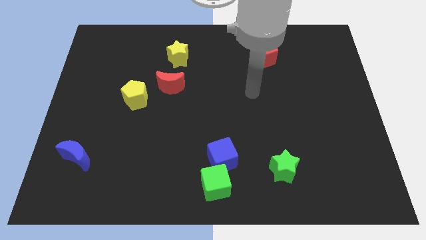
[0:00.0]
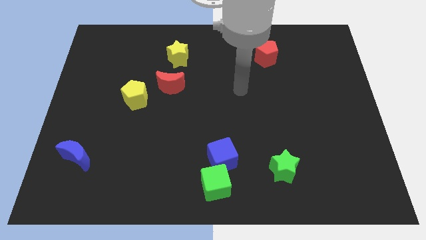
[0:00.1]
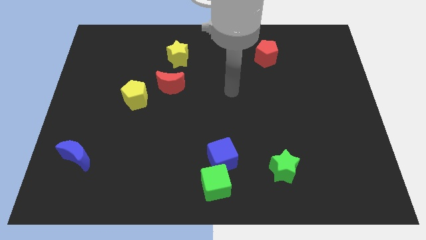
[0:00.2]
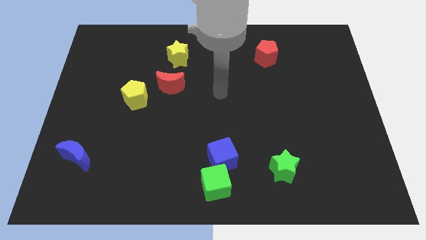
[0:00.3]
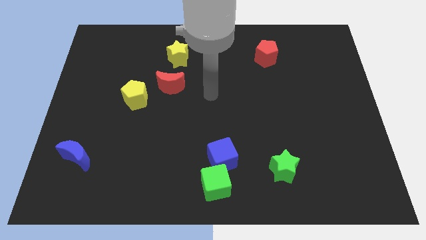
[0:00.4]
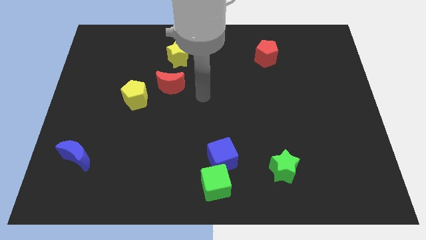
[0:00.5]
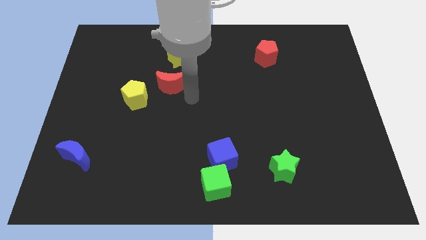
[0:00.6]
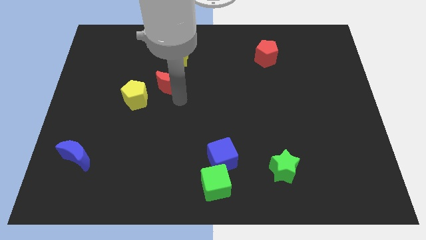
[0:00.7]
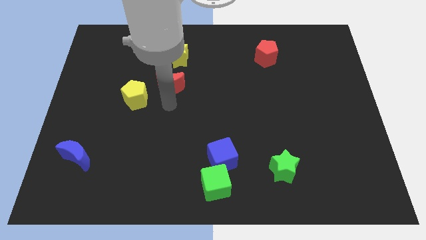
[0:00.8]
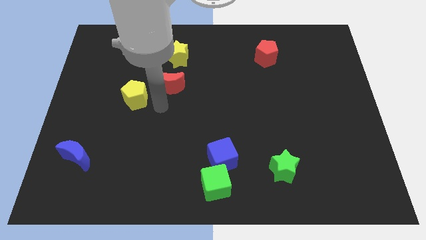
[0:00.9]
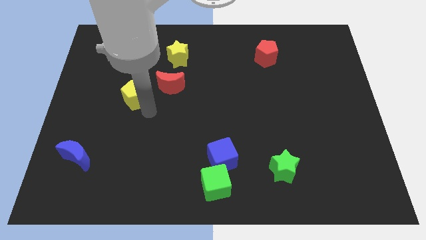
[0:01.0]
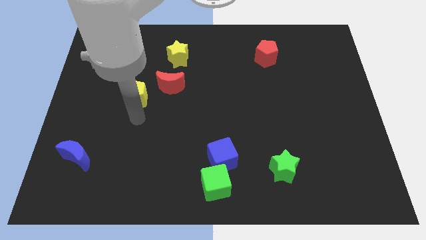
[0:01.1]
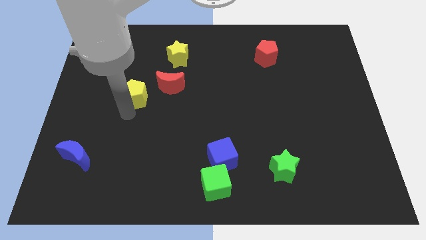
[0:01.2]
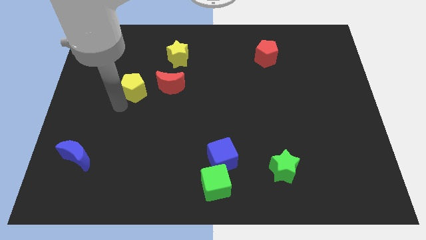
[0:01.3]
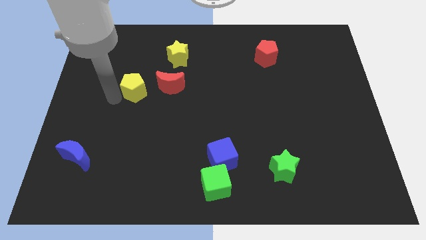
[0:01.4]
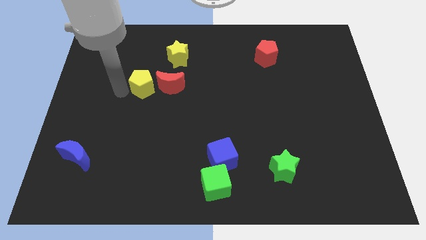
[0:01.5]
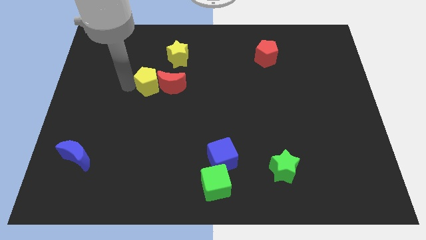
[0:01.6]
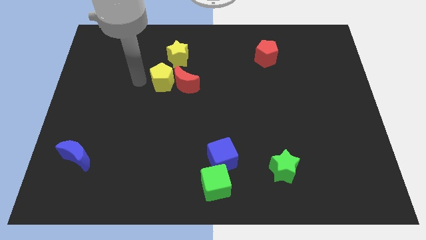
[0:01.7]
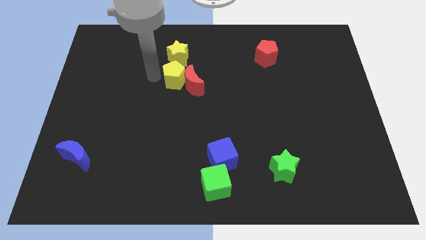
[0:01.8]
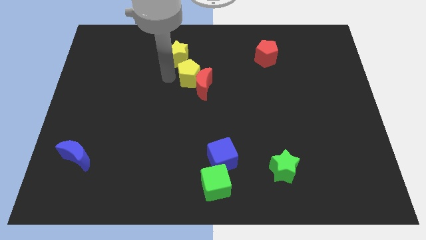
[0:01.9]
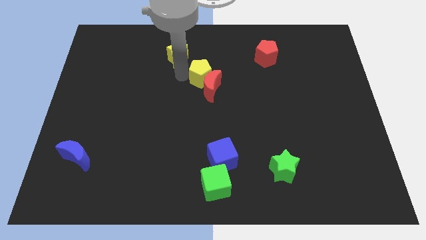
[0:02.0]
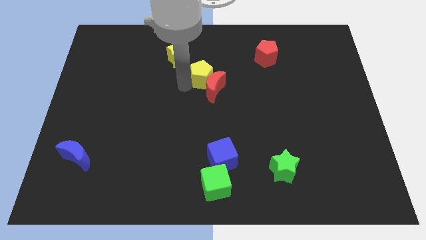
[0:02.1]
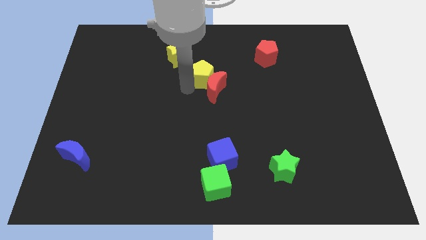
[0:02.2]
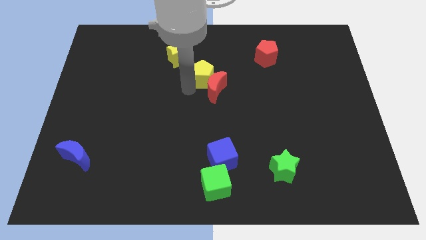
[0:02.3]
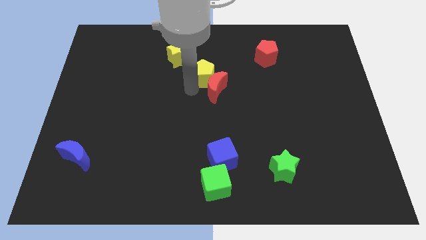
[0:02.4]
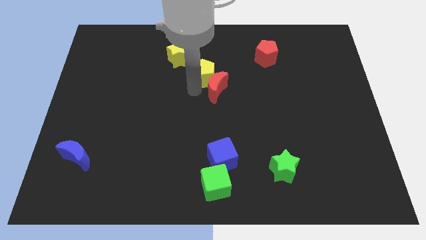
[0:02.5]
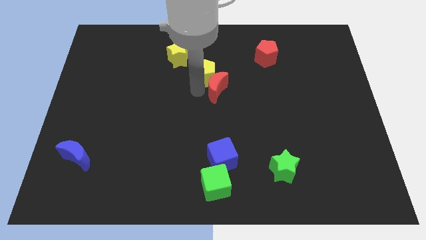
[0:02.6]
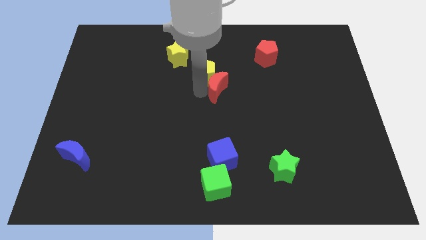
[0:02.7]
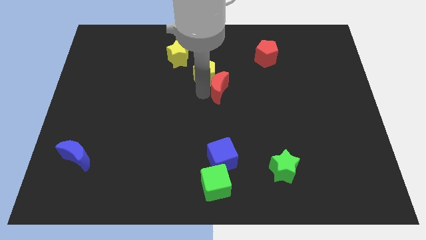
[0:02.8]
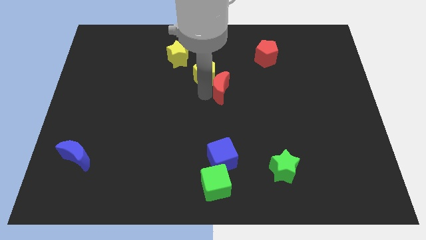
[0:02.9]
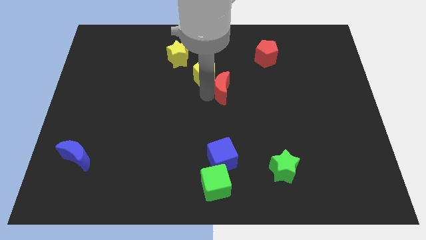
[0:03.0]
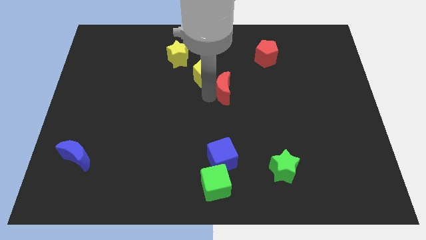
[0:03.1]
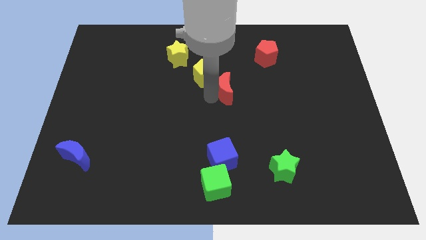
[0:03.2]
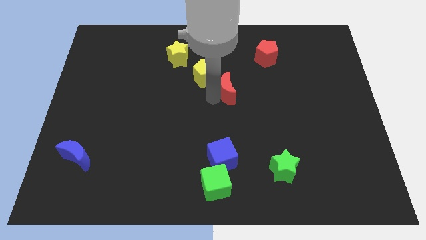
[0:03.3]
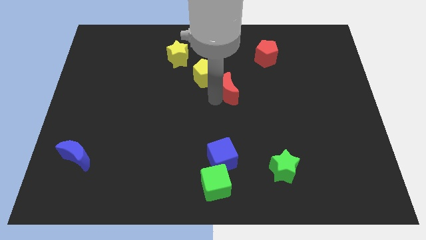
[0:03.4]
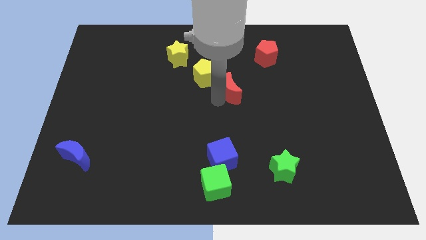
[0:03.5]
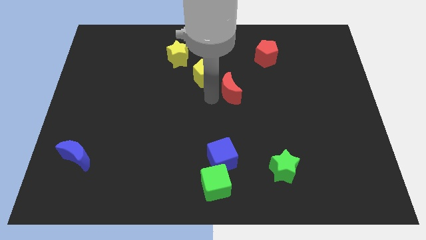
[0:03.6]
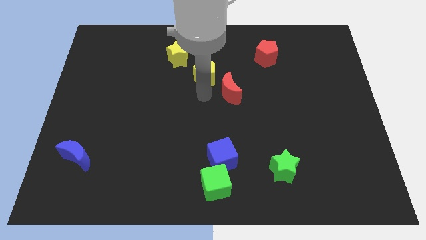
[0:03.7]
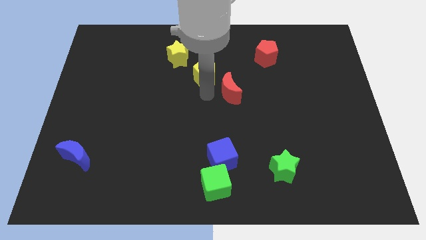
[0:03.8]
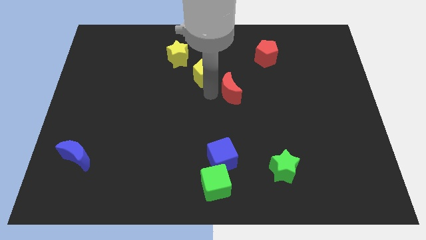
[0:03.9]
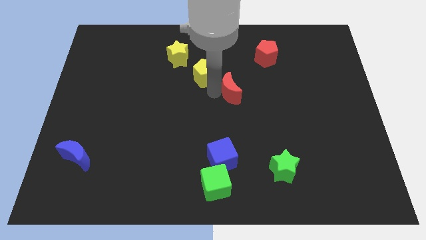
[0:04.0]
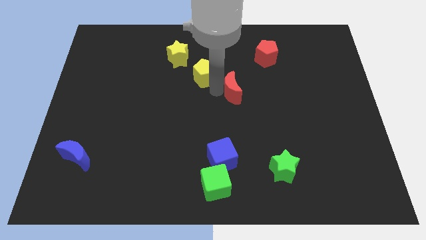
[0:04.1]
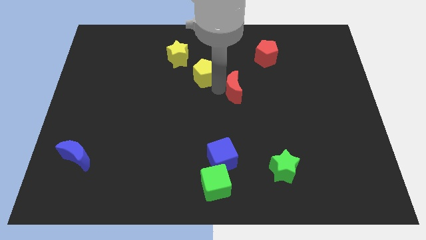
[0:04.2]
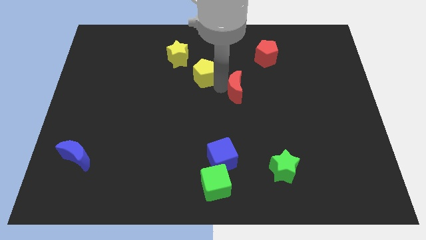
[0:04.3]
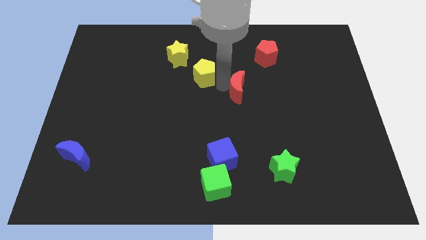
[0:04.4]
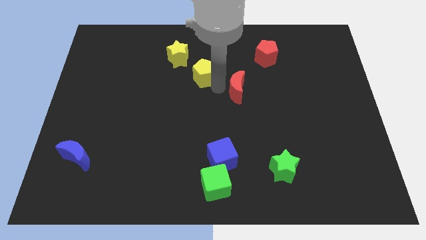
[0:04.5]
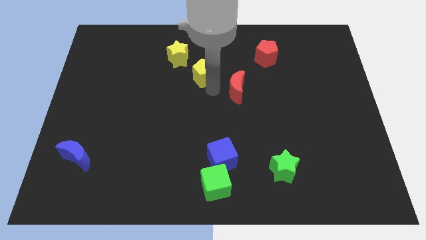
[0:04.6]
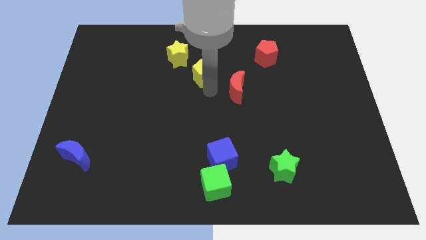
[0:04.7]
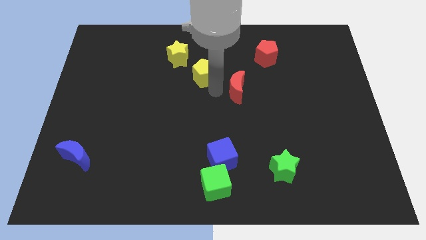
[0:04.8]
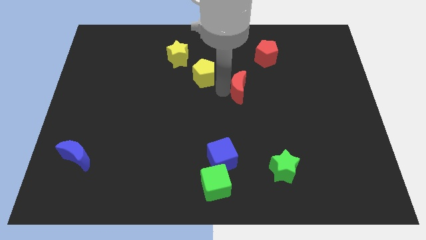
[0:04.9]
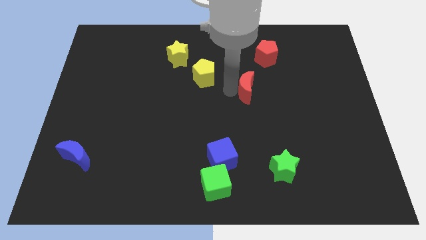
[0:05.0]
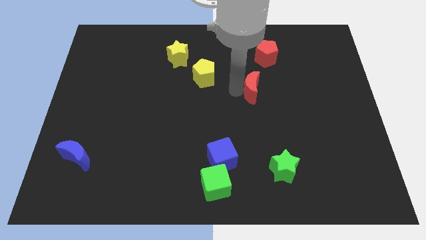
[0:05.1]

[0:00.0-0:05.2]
slide the red moon to the right

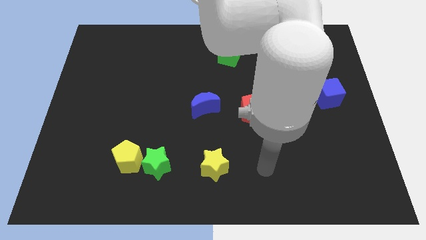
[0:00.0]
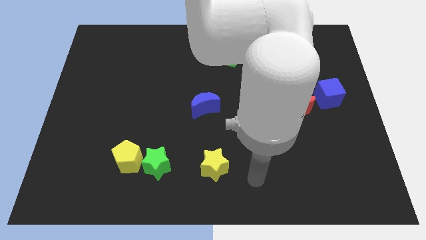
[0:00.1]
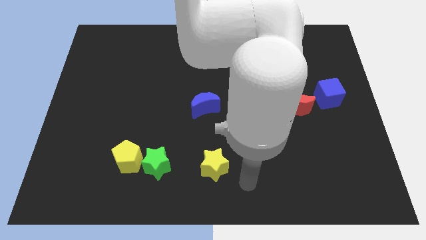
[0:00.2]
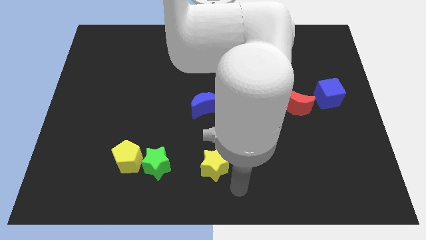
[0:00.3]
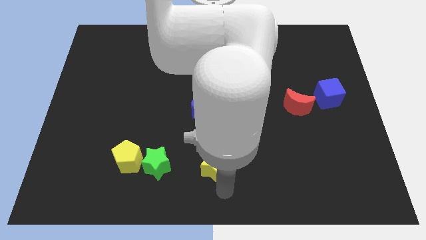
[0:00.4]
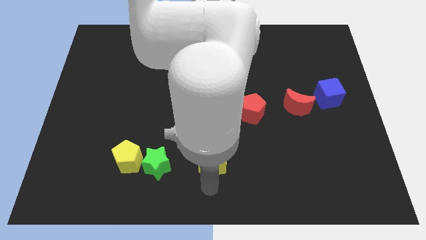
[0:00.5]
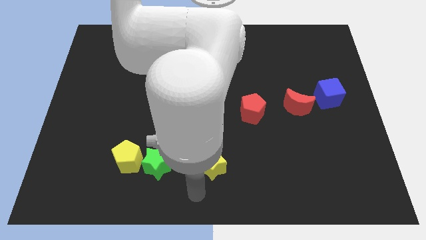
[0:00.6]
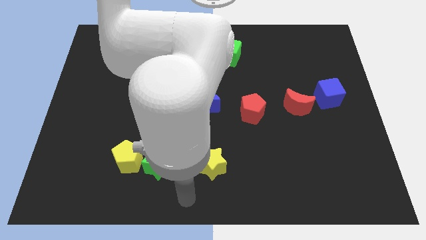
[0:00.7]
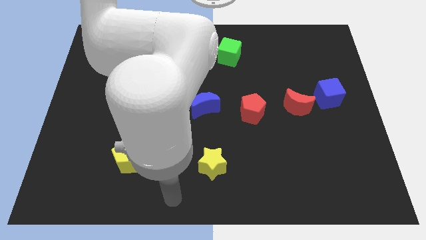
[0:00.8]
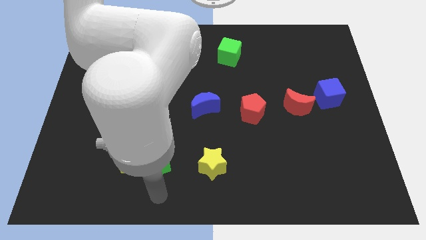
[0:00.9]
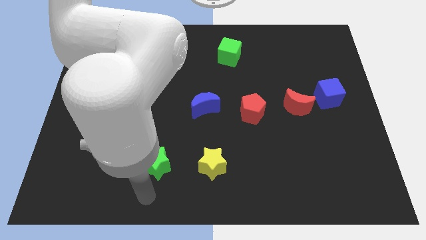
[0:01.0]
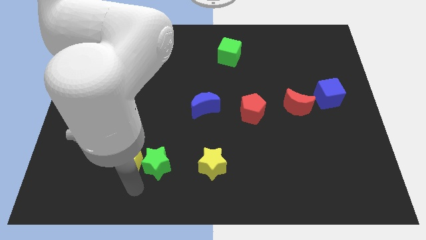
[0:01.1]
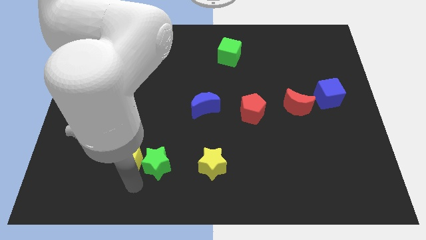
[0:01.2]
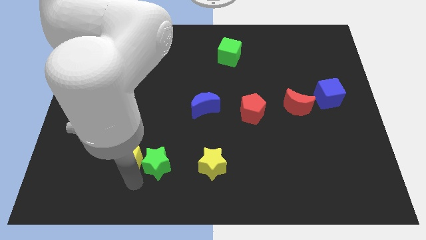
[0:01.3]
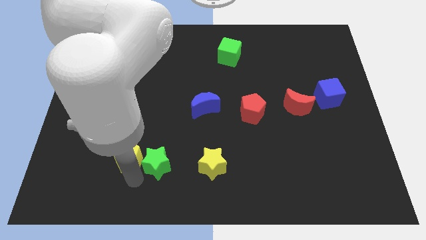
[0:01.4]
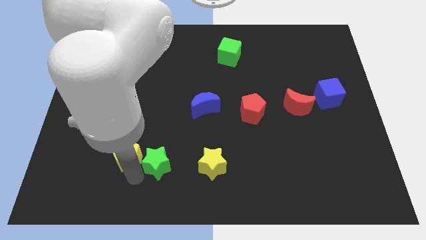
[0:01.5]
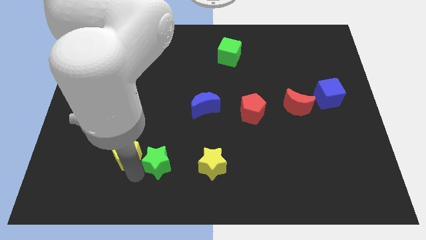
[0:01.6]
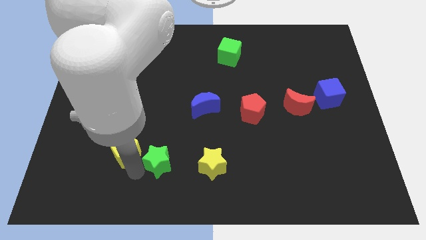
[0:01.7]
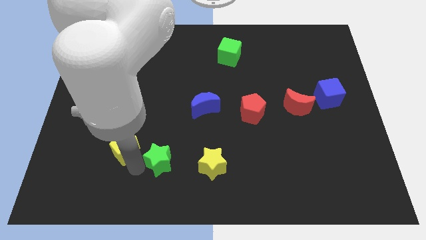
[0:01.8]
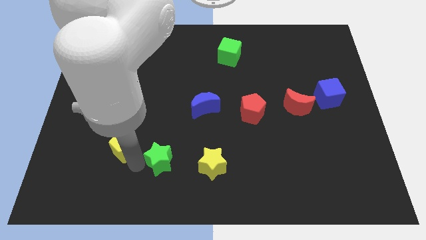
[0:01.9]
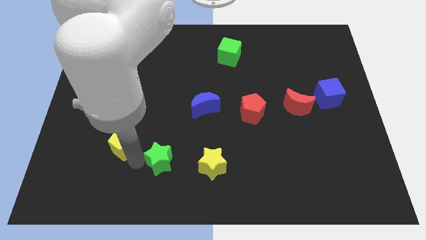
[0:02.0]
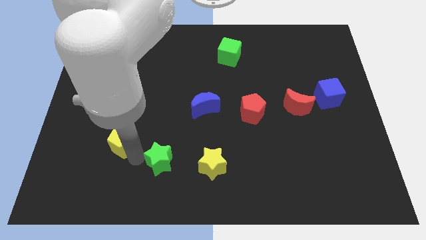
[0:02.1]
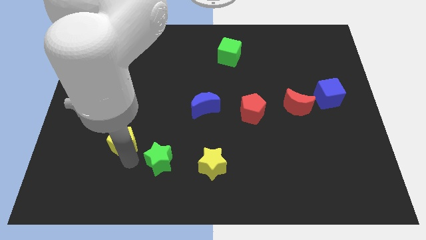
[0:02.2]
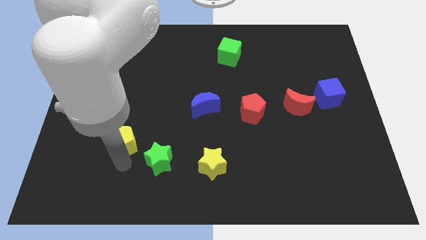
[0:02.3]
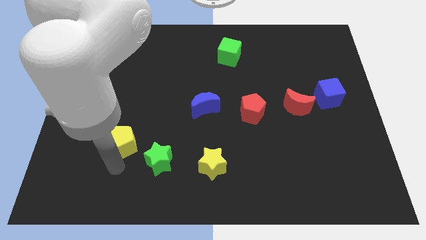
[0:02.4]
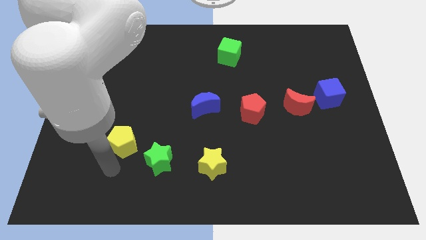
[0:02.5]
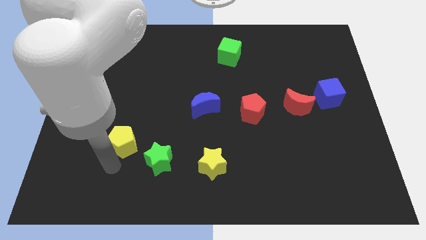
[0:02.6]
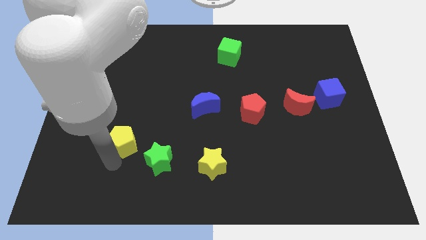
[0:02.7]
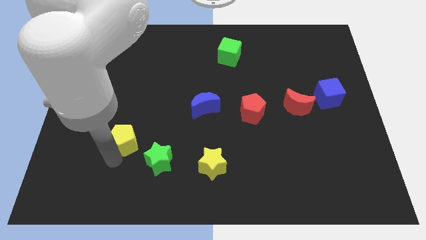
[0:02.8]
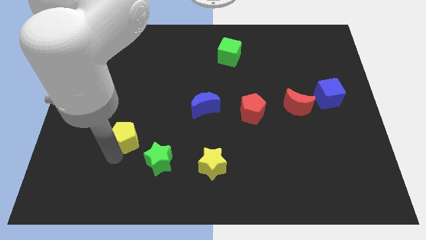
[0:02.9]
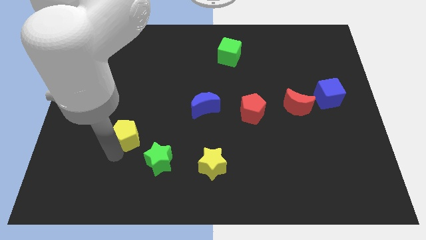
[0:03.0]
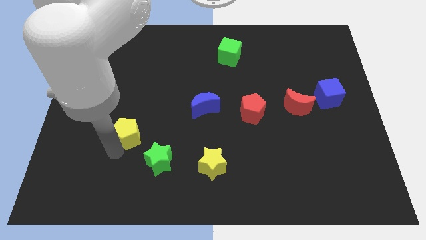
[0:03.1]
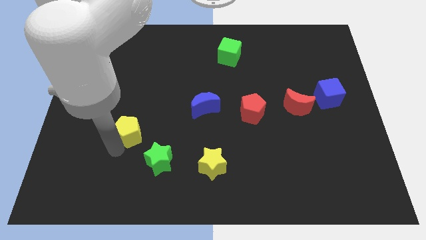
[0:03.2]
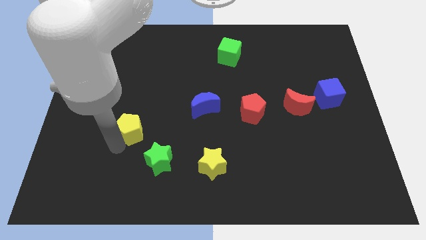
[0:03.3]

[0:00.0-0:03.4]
slide the yellow pentagon a little up

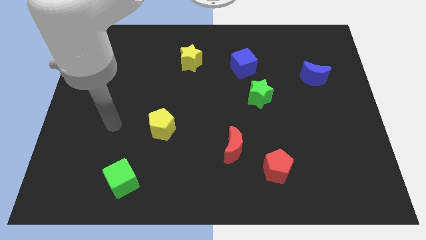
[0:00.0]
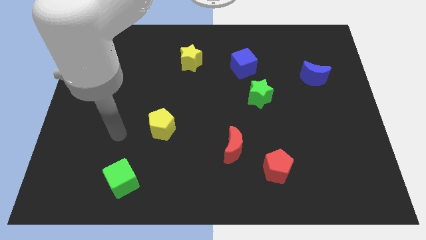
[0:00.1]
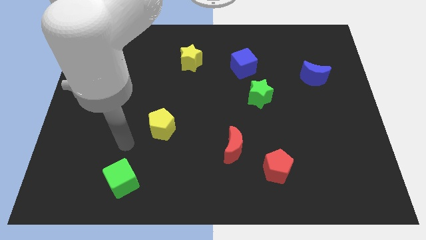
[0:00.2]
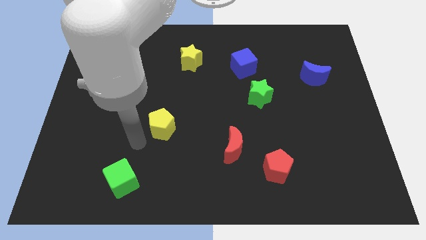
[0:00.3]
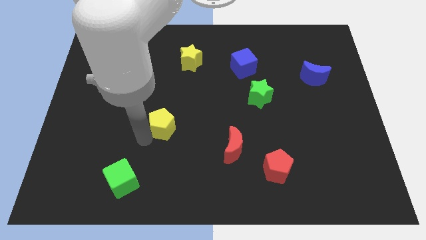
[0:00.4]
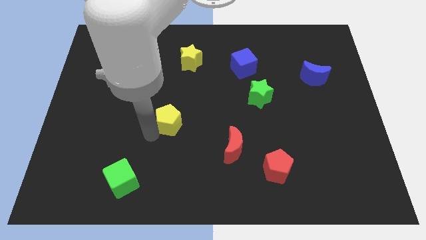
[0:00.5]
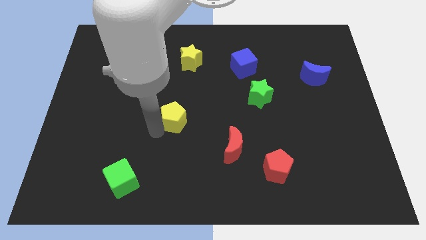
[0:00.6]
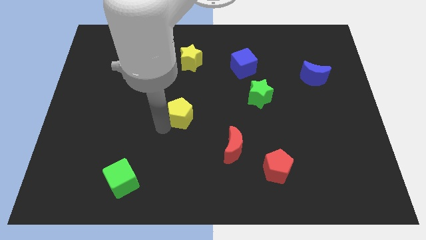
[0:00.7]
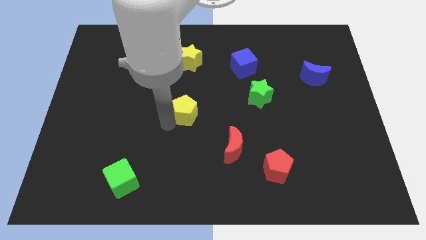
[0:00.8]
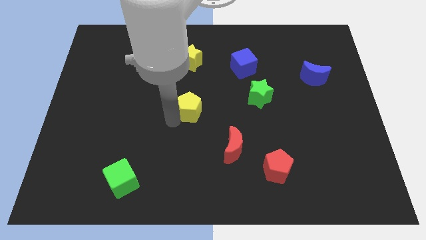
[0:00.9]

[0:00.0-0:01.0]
push the yellow pentagon slightly up and to the right
